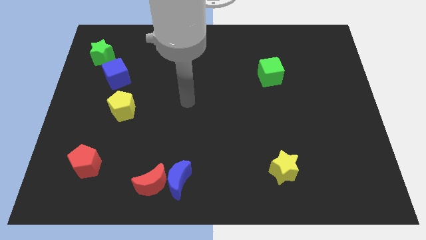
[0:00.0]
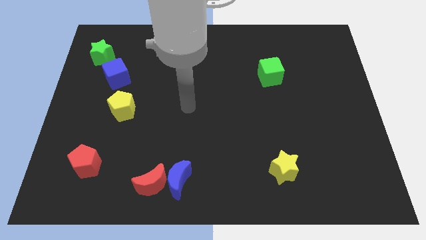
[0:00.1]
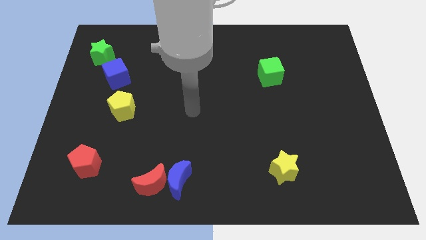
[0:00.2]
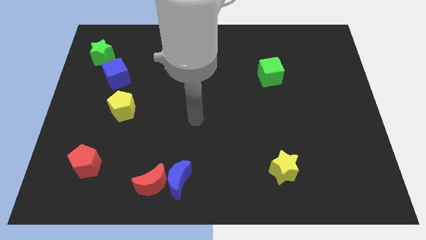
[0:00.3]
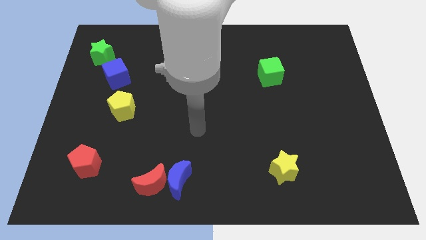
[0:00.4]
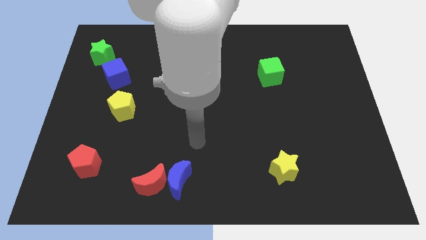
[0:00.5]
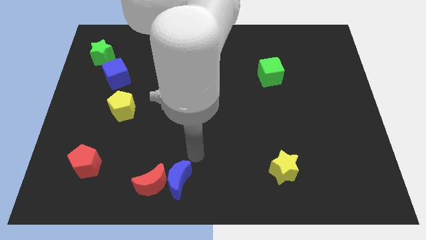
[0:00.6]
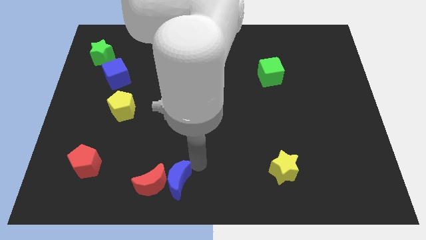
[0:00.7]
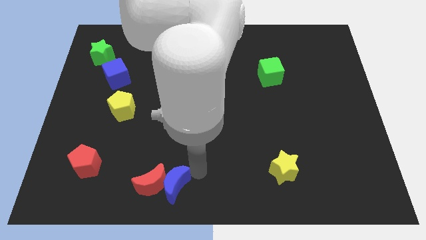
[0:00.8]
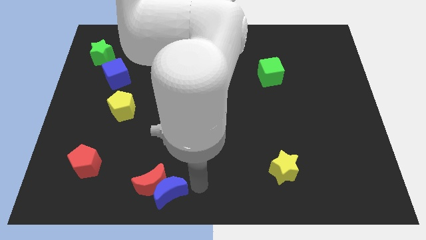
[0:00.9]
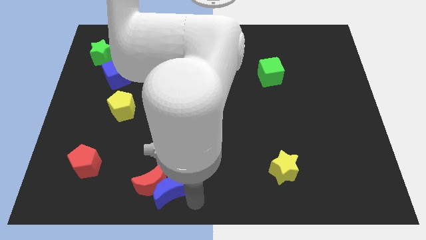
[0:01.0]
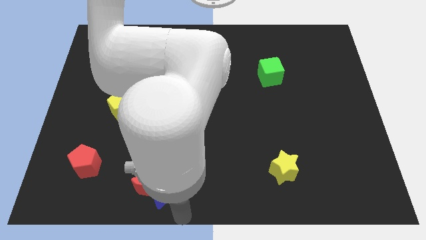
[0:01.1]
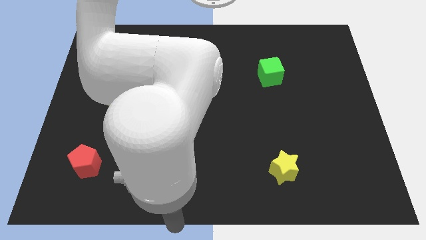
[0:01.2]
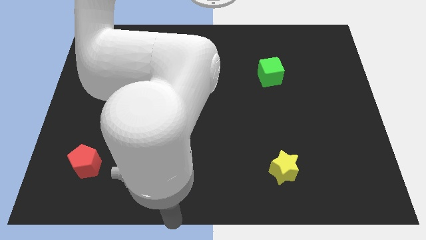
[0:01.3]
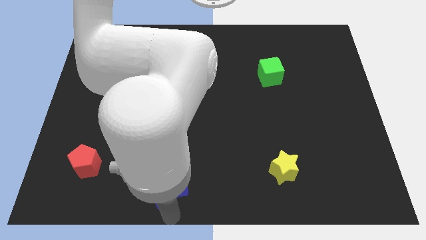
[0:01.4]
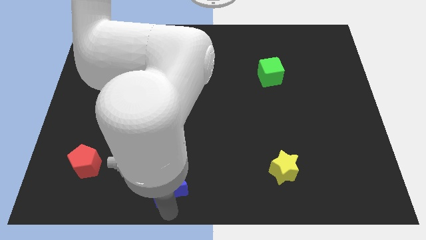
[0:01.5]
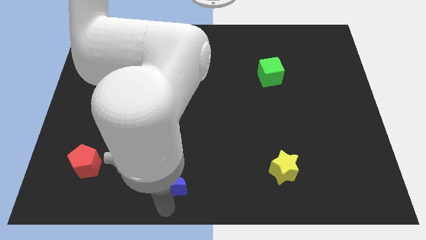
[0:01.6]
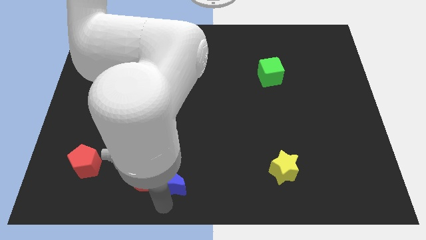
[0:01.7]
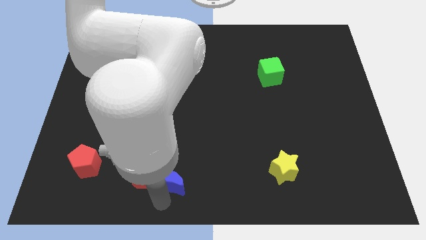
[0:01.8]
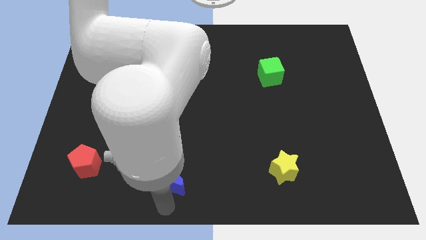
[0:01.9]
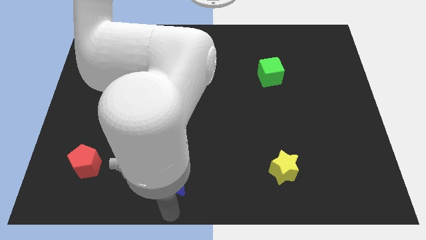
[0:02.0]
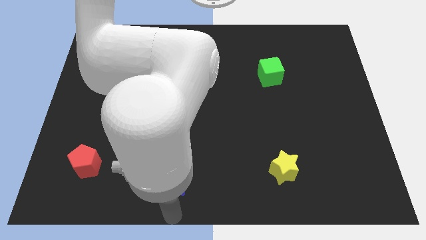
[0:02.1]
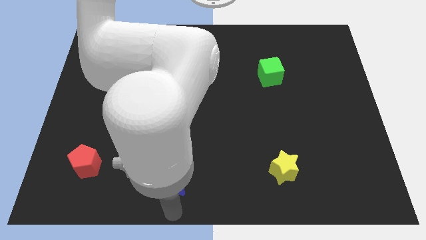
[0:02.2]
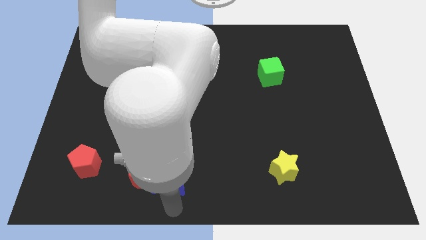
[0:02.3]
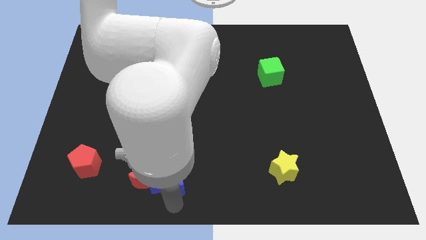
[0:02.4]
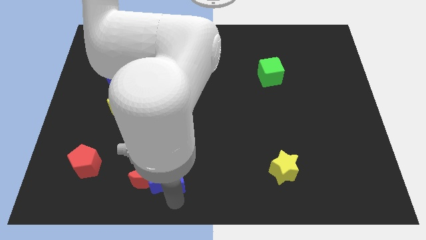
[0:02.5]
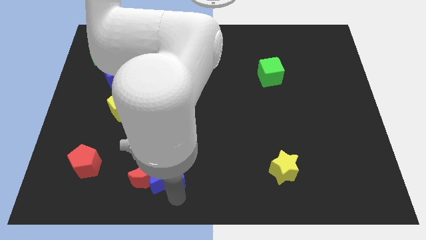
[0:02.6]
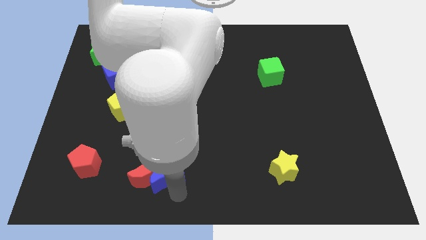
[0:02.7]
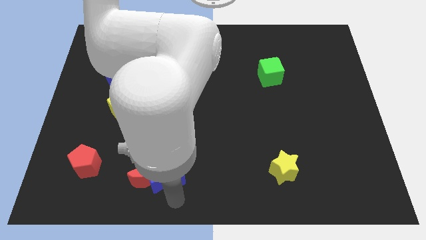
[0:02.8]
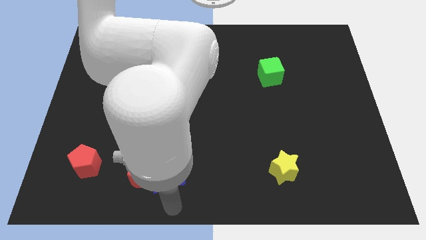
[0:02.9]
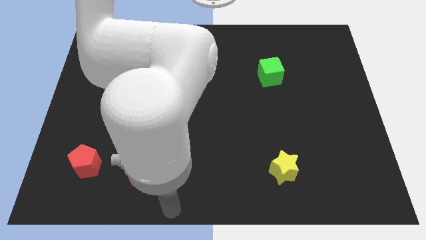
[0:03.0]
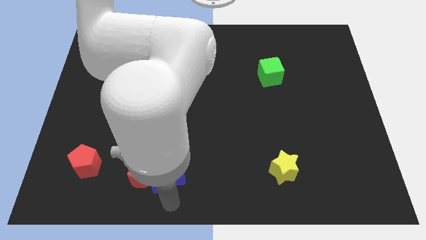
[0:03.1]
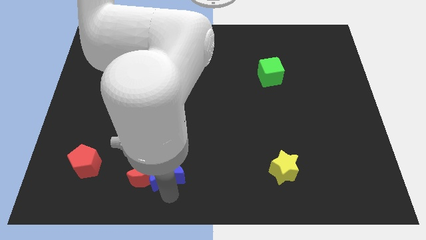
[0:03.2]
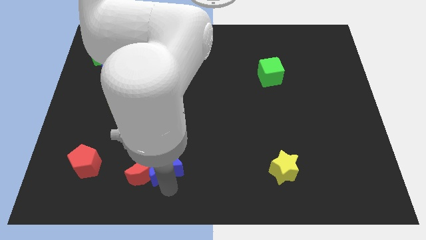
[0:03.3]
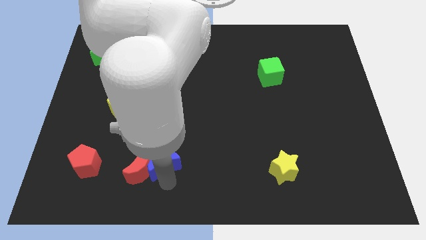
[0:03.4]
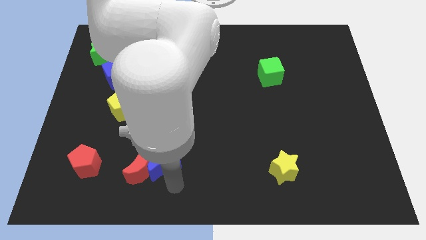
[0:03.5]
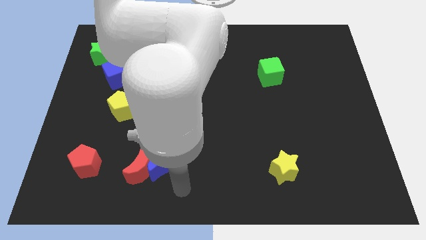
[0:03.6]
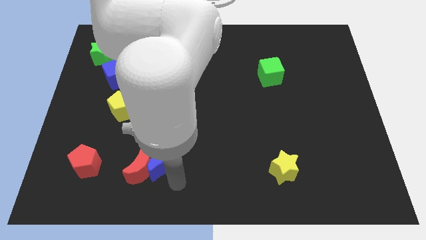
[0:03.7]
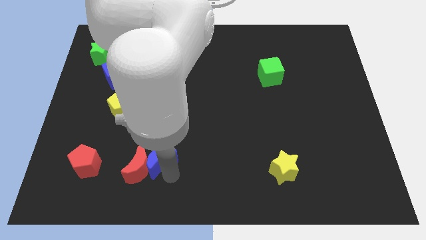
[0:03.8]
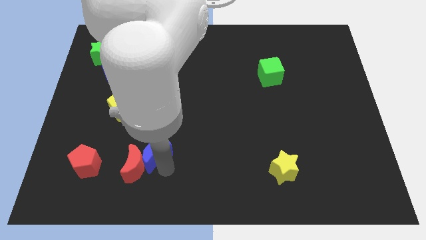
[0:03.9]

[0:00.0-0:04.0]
move the blue moon upwards and left diagonally somewhat

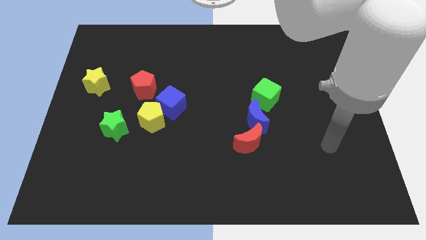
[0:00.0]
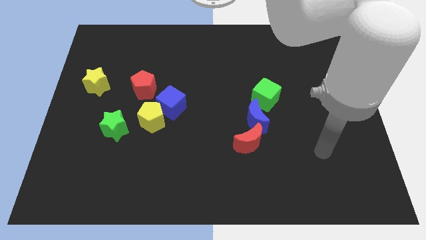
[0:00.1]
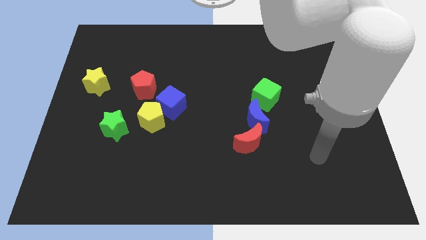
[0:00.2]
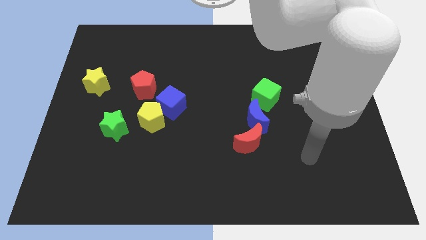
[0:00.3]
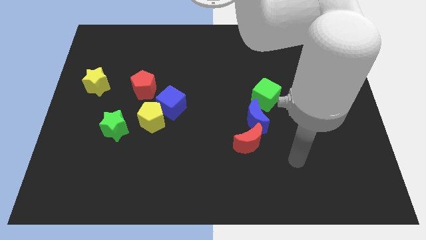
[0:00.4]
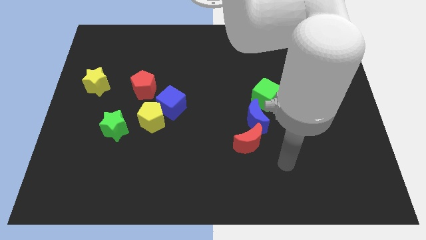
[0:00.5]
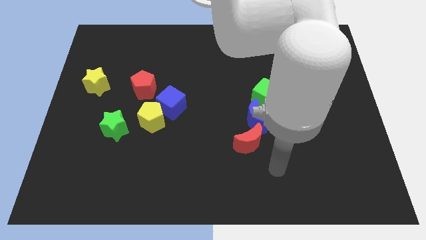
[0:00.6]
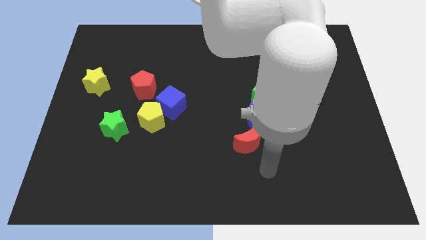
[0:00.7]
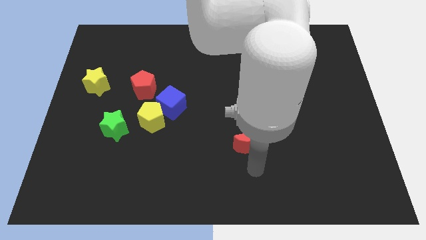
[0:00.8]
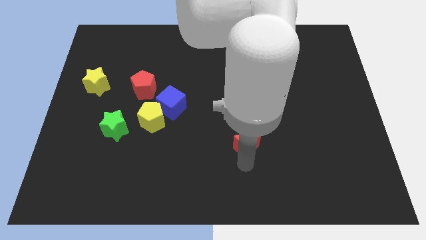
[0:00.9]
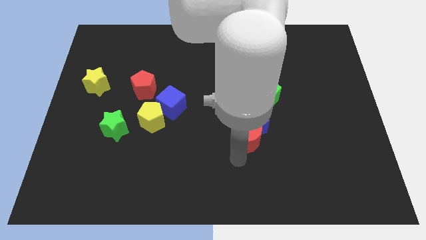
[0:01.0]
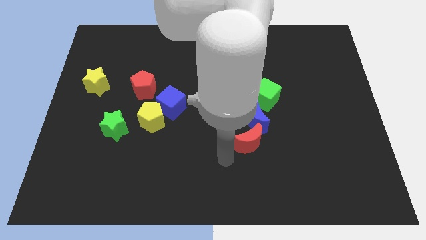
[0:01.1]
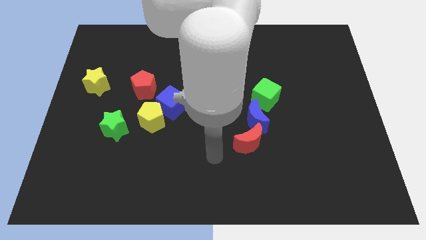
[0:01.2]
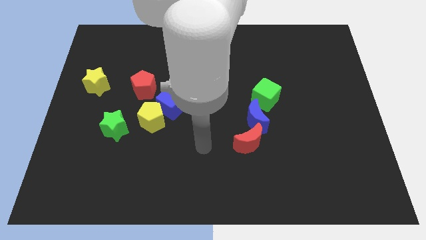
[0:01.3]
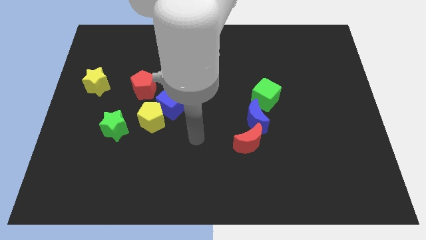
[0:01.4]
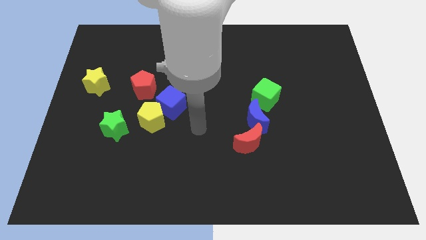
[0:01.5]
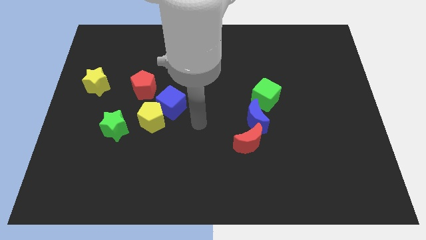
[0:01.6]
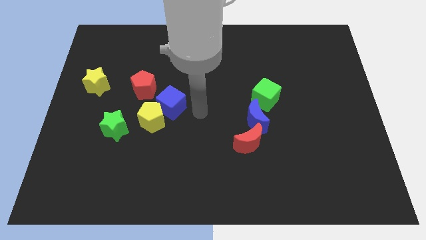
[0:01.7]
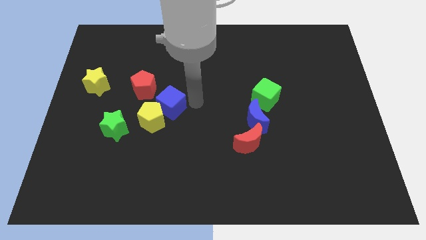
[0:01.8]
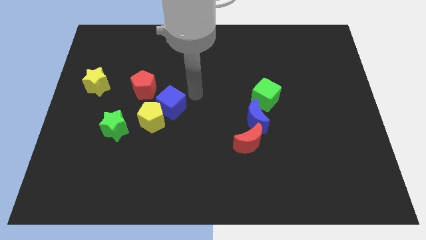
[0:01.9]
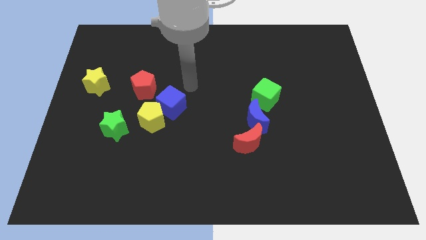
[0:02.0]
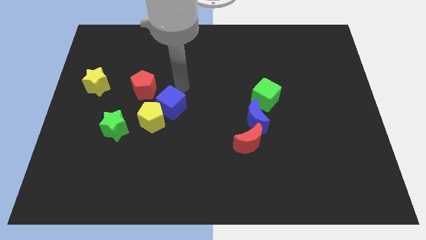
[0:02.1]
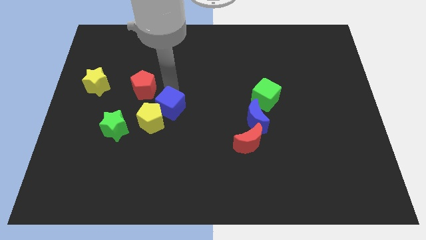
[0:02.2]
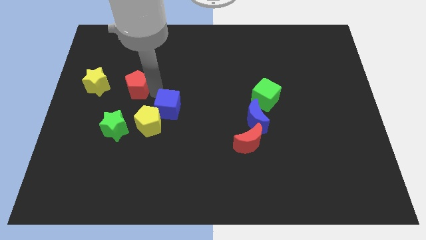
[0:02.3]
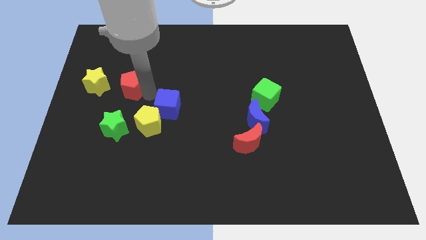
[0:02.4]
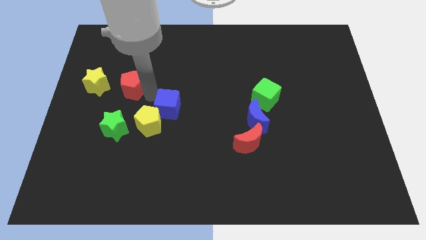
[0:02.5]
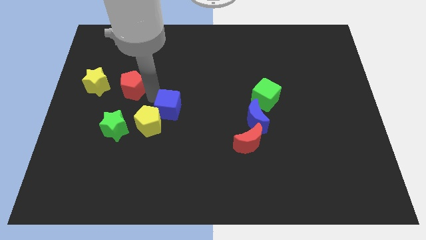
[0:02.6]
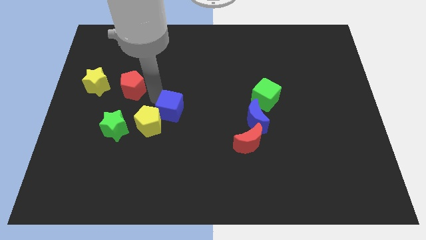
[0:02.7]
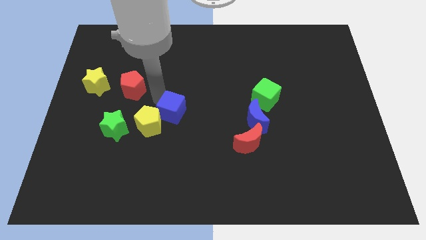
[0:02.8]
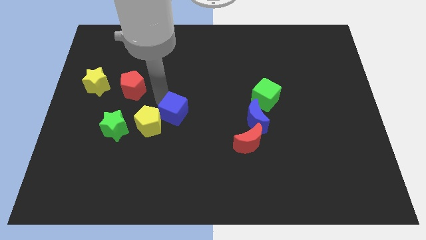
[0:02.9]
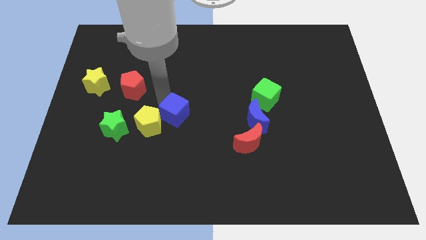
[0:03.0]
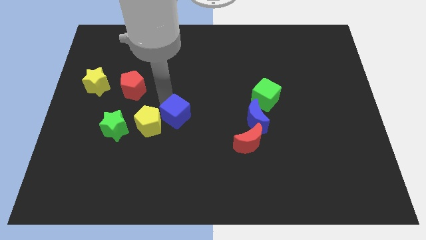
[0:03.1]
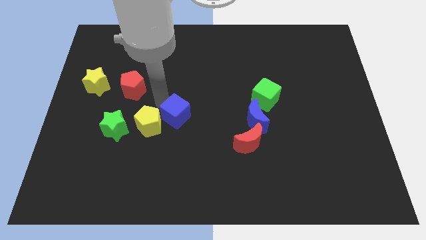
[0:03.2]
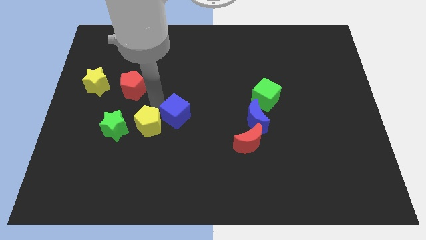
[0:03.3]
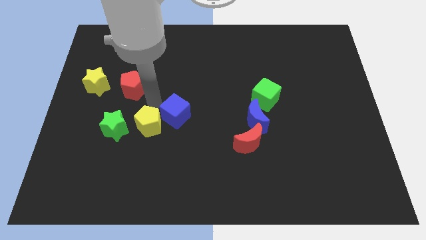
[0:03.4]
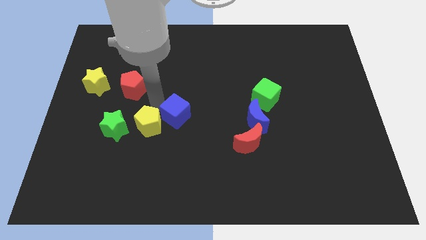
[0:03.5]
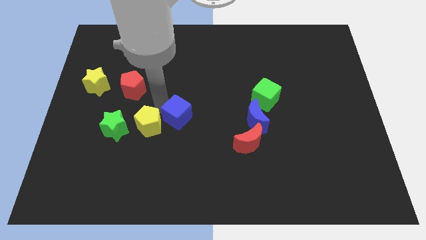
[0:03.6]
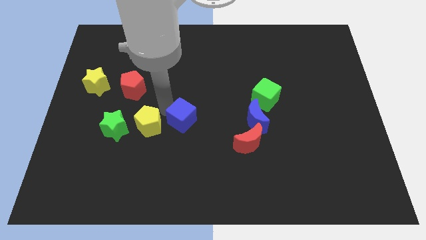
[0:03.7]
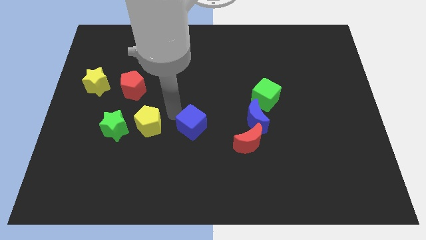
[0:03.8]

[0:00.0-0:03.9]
push the blue cube down and to the right diagonally a little

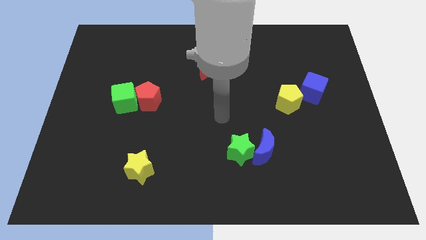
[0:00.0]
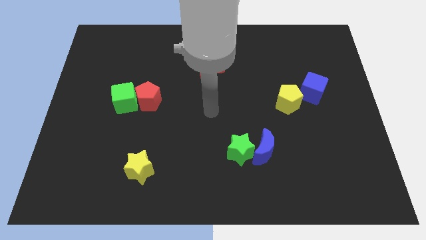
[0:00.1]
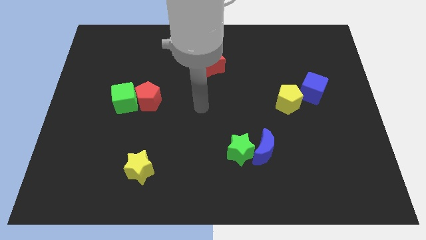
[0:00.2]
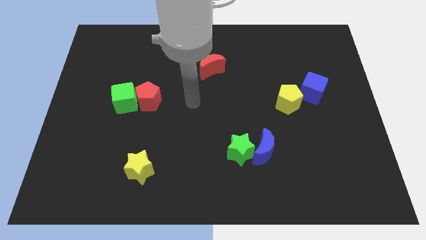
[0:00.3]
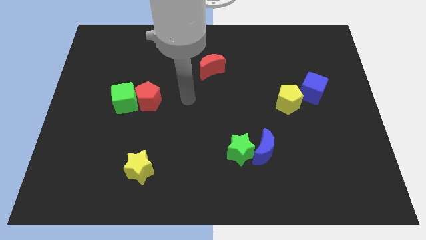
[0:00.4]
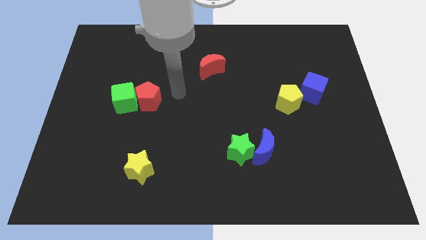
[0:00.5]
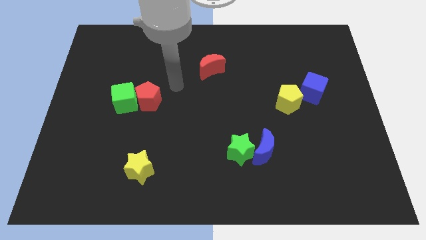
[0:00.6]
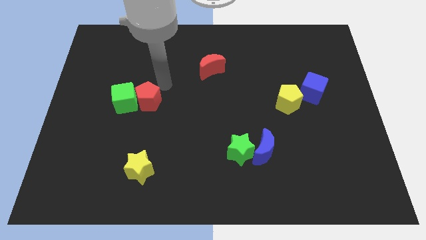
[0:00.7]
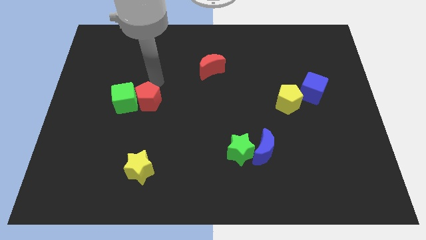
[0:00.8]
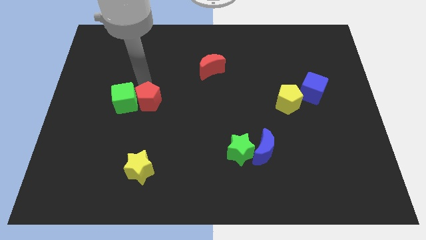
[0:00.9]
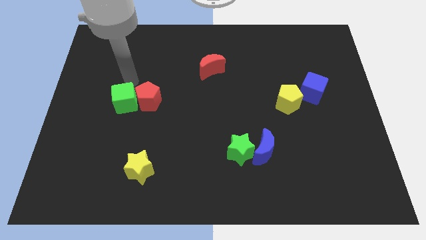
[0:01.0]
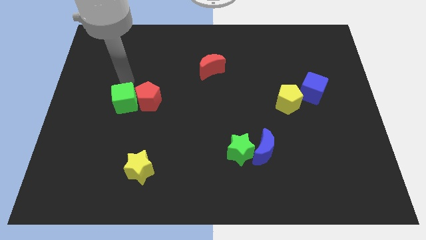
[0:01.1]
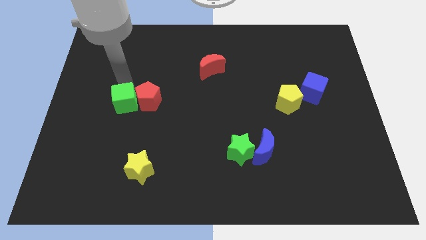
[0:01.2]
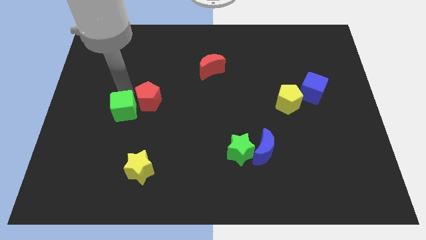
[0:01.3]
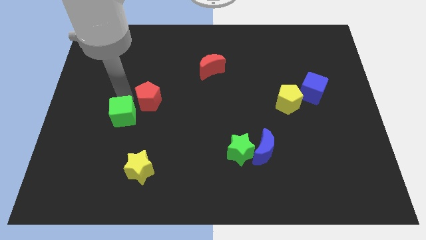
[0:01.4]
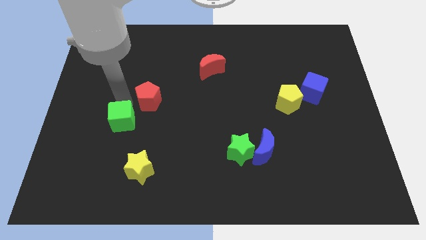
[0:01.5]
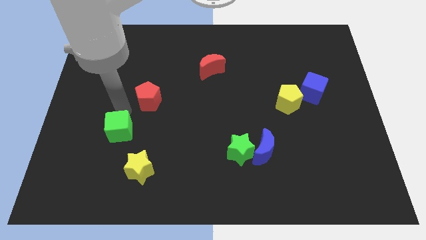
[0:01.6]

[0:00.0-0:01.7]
slightly move the green cube down
